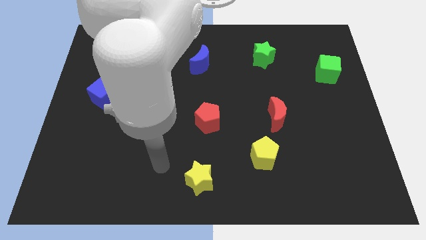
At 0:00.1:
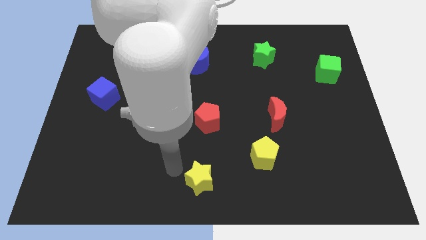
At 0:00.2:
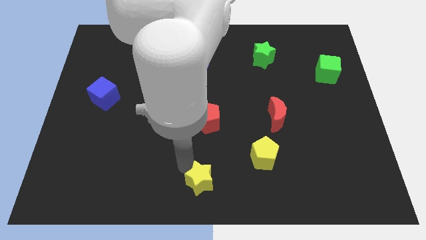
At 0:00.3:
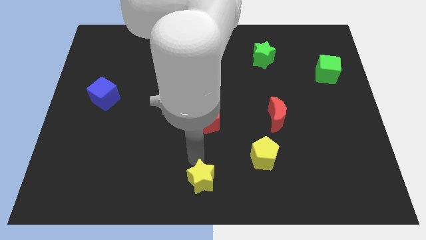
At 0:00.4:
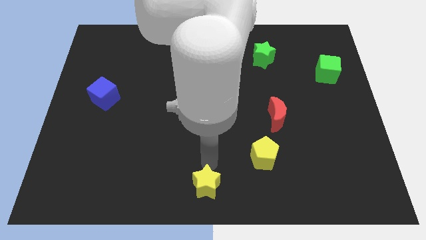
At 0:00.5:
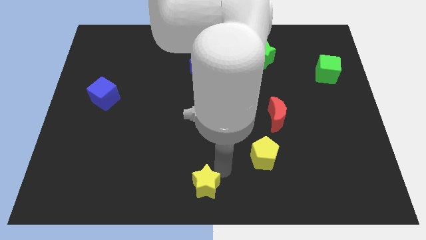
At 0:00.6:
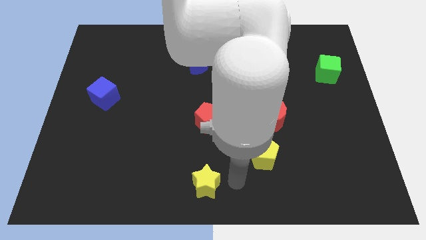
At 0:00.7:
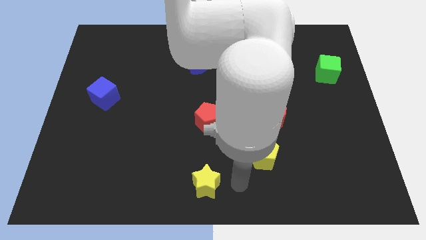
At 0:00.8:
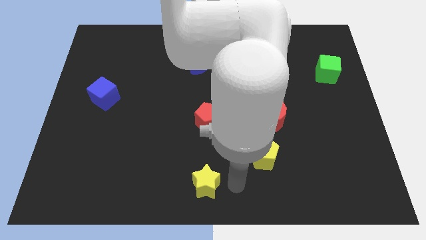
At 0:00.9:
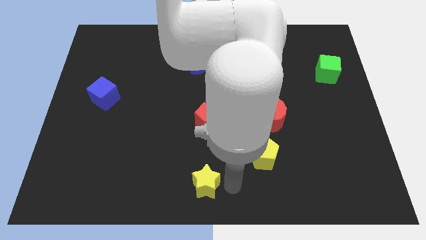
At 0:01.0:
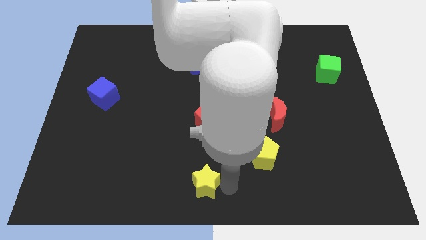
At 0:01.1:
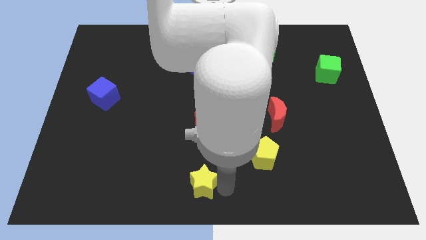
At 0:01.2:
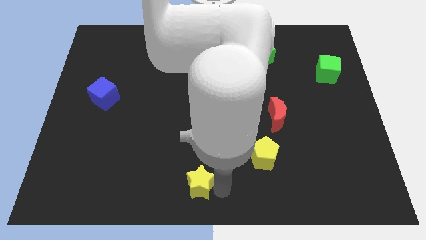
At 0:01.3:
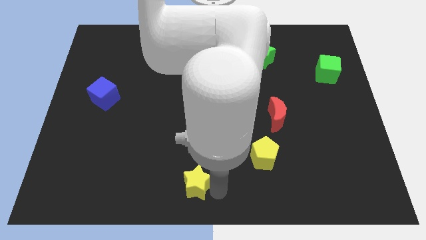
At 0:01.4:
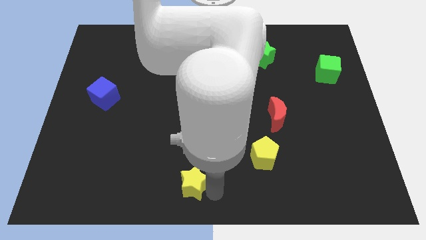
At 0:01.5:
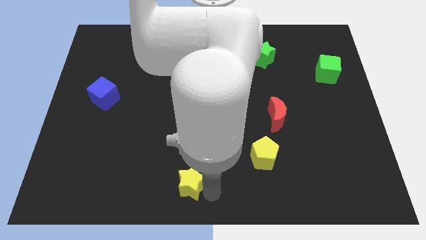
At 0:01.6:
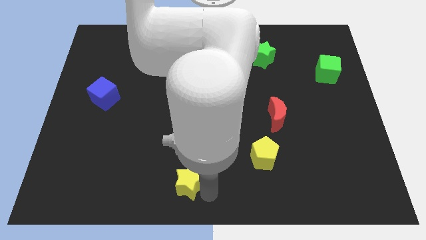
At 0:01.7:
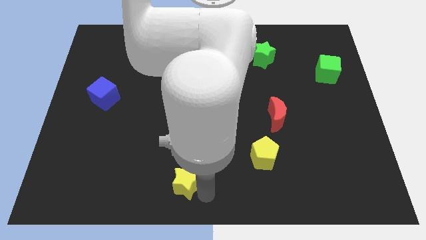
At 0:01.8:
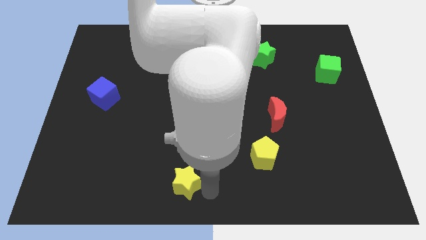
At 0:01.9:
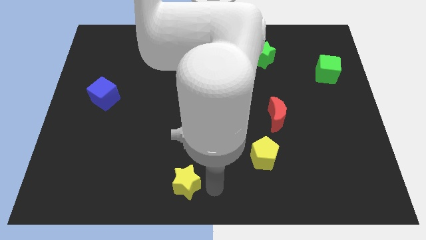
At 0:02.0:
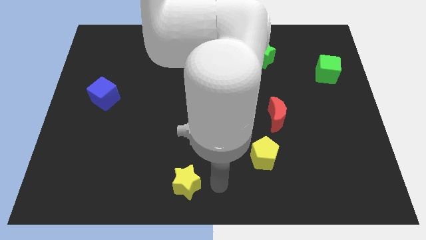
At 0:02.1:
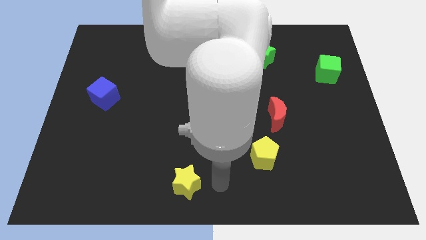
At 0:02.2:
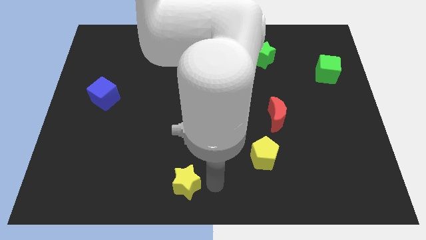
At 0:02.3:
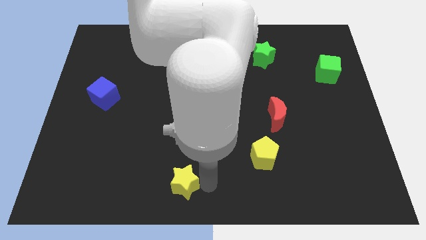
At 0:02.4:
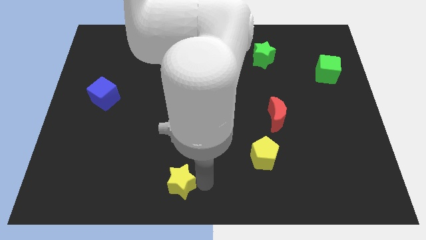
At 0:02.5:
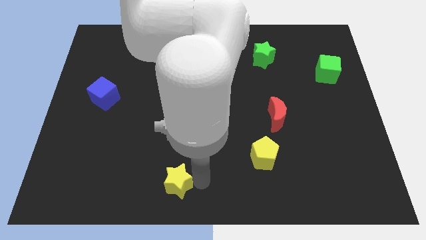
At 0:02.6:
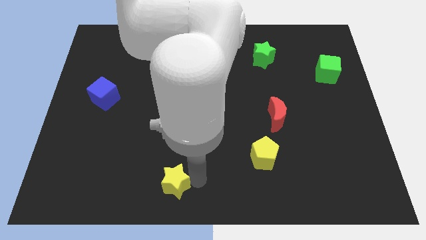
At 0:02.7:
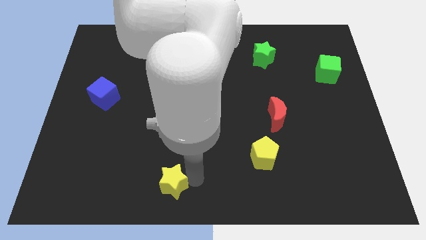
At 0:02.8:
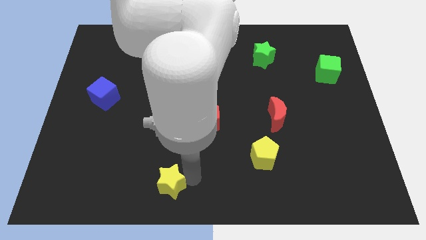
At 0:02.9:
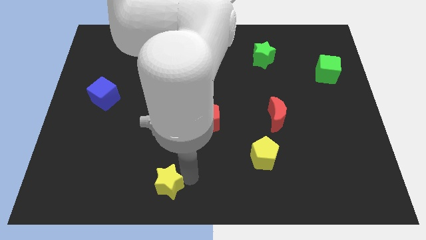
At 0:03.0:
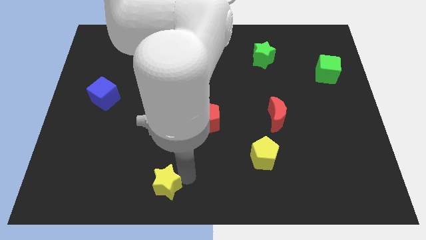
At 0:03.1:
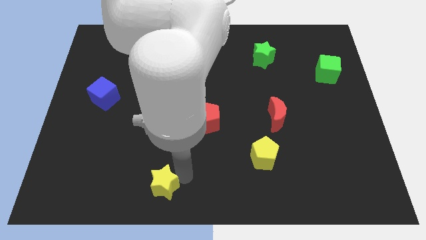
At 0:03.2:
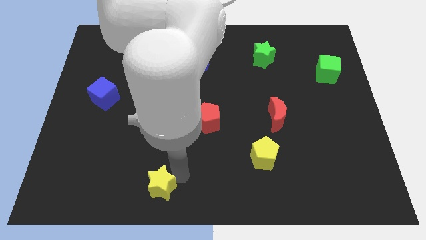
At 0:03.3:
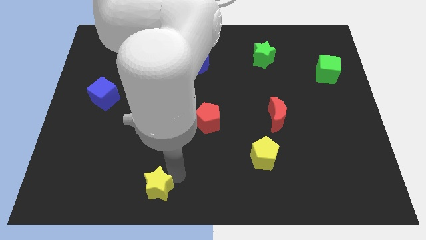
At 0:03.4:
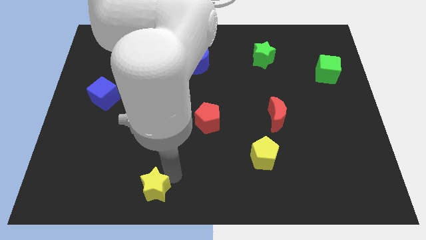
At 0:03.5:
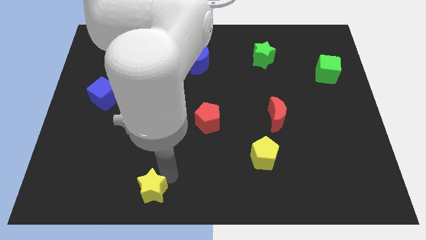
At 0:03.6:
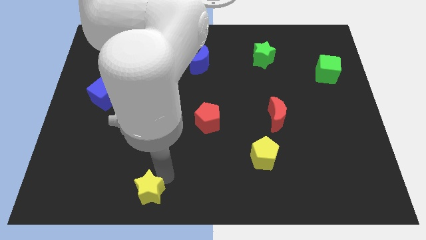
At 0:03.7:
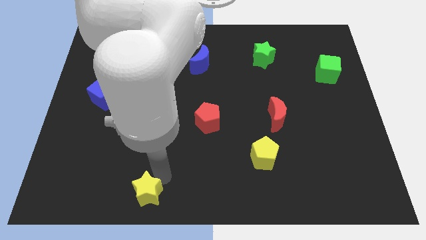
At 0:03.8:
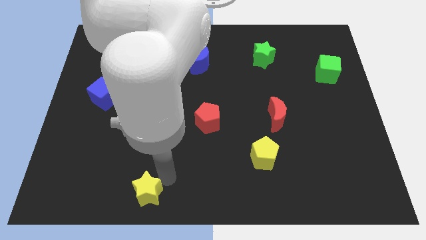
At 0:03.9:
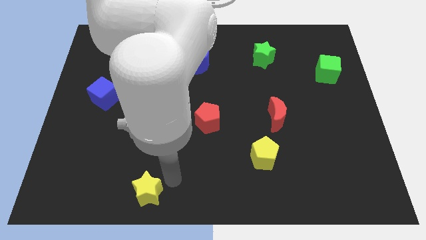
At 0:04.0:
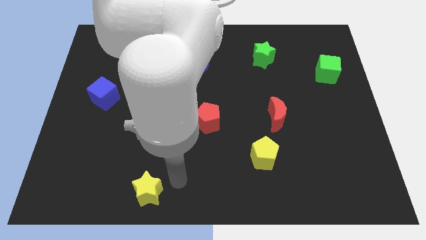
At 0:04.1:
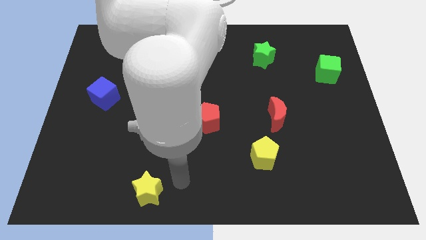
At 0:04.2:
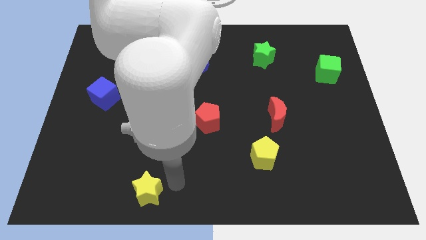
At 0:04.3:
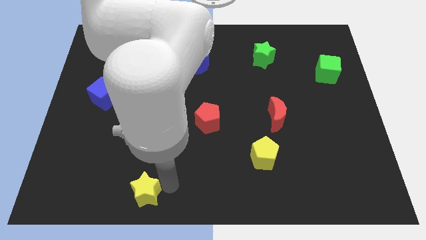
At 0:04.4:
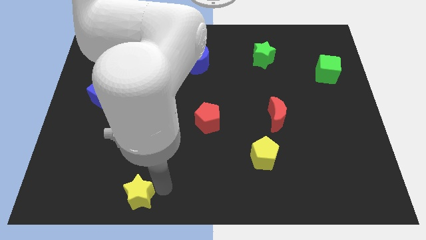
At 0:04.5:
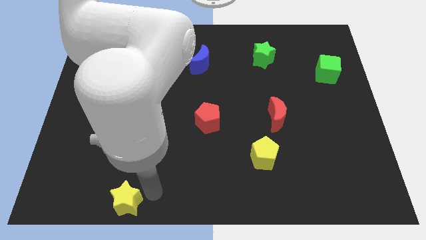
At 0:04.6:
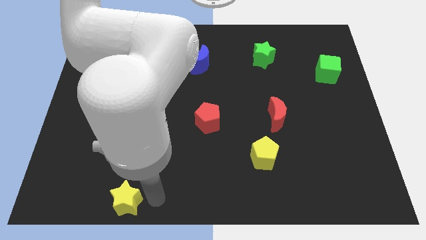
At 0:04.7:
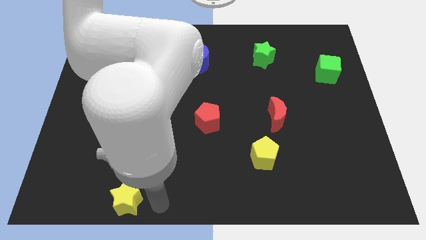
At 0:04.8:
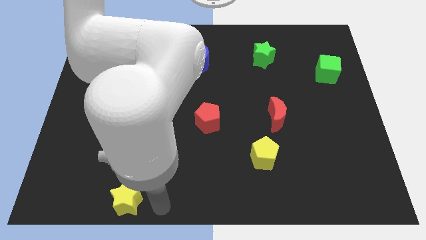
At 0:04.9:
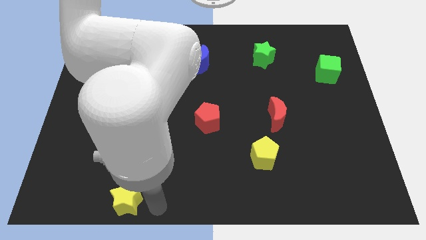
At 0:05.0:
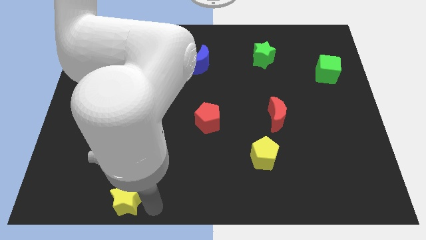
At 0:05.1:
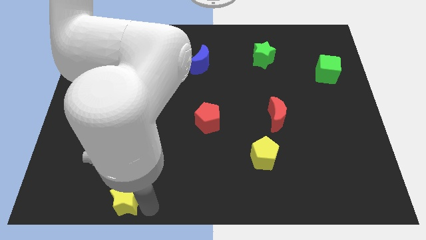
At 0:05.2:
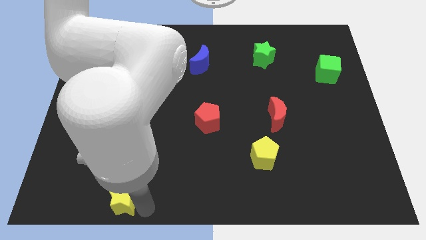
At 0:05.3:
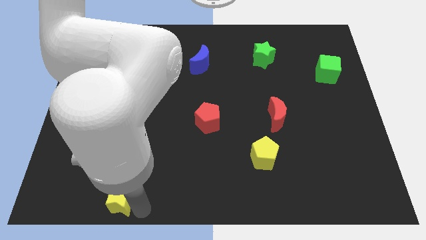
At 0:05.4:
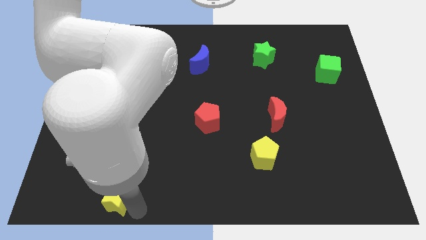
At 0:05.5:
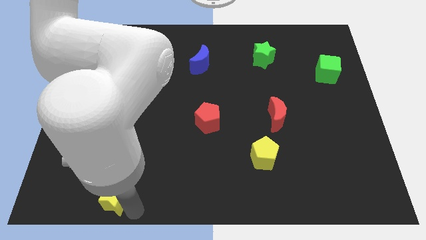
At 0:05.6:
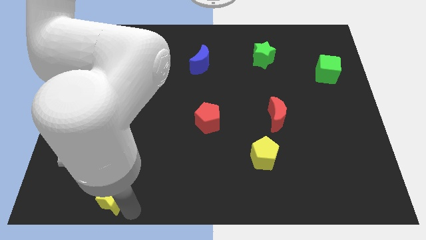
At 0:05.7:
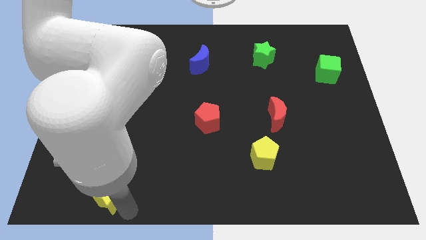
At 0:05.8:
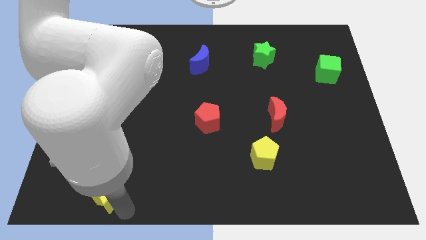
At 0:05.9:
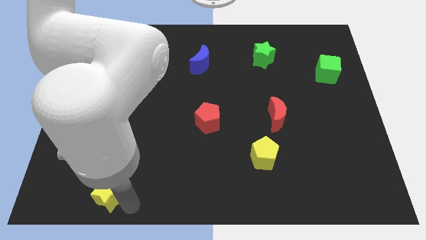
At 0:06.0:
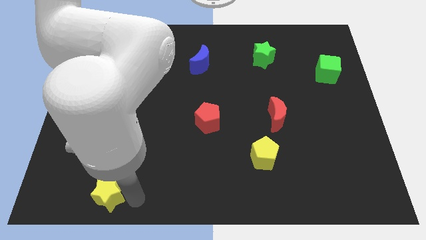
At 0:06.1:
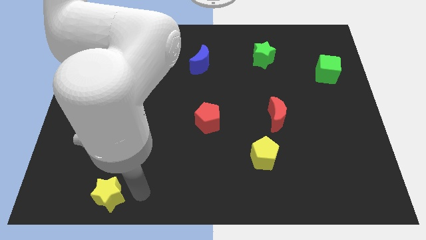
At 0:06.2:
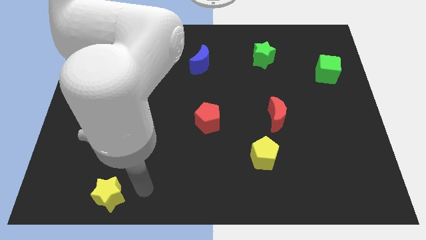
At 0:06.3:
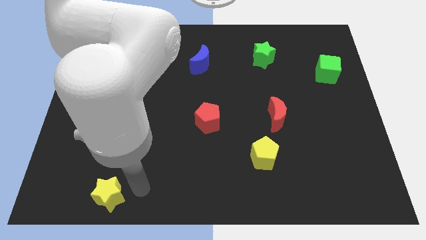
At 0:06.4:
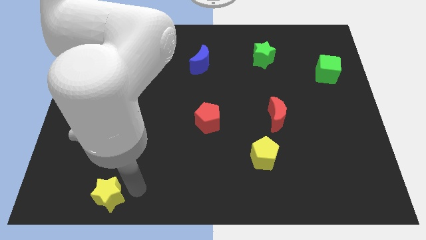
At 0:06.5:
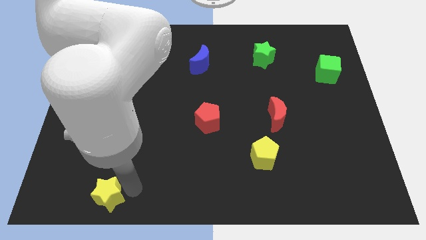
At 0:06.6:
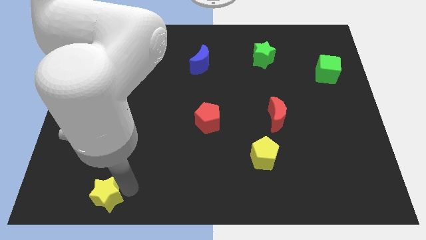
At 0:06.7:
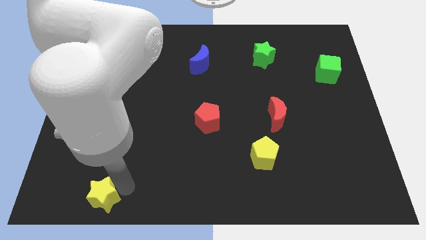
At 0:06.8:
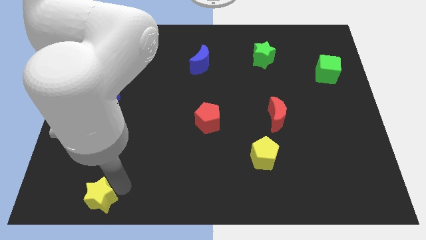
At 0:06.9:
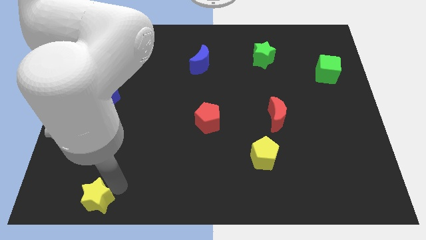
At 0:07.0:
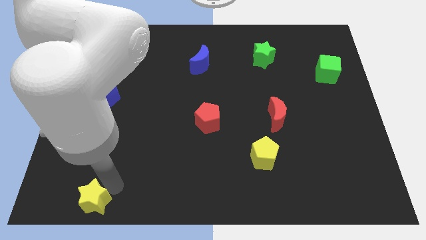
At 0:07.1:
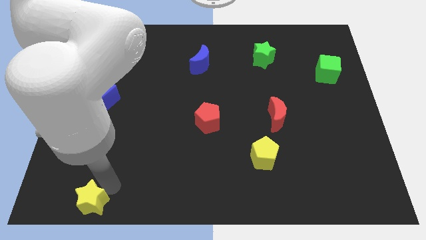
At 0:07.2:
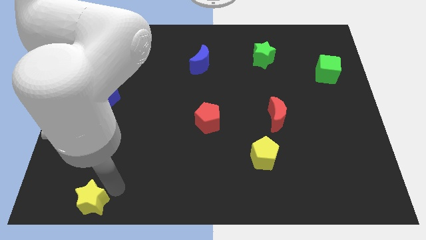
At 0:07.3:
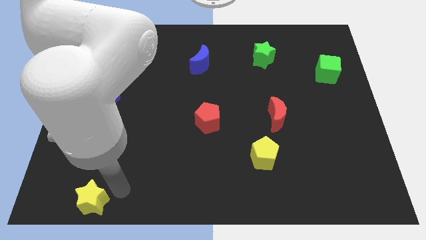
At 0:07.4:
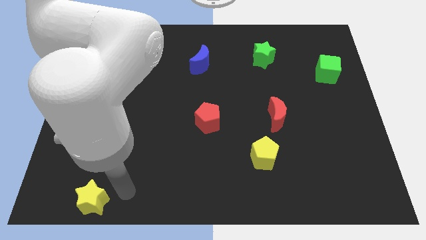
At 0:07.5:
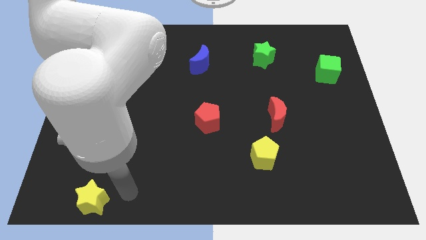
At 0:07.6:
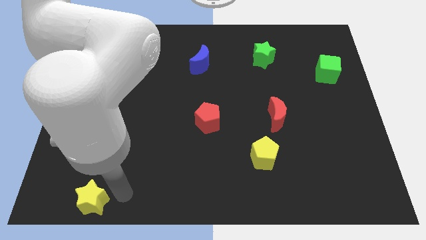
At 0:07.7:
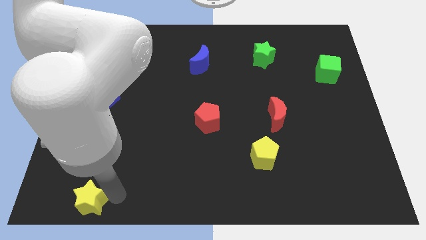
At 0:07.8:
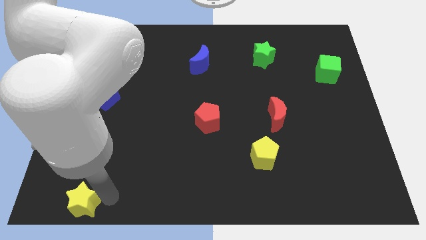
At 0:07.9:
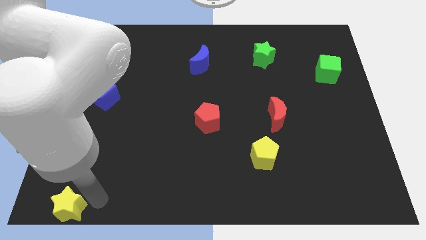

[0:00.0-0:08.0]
move the yellow star to the lower left corner
